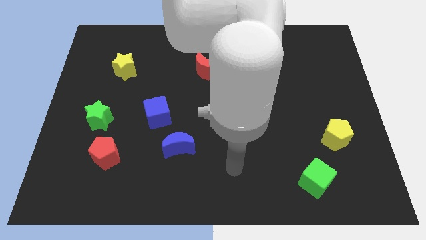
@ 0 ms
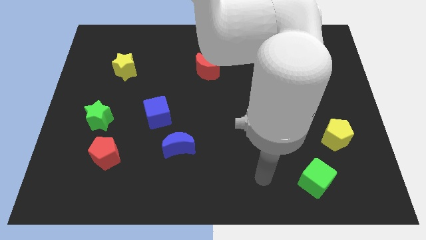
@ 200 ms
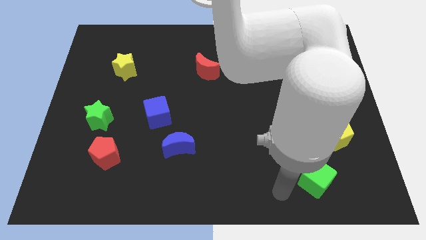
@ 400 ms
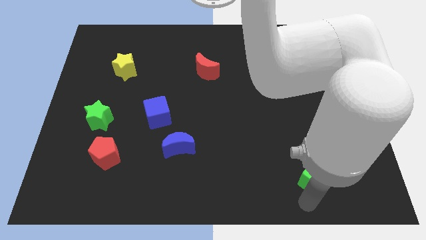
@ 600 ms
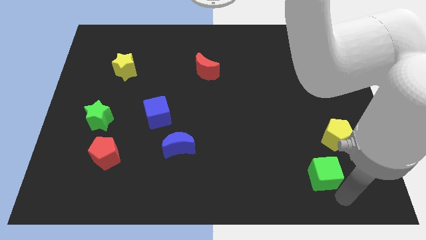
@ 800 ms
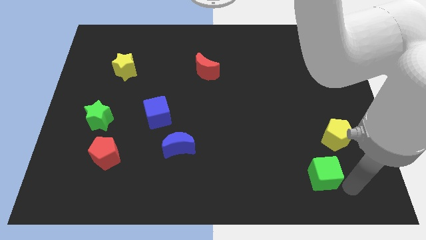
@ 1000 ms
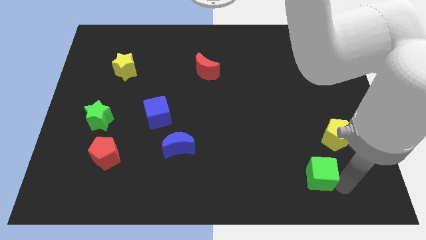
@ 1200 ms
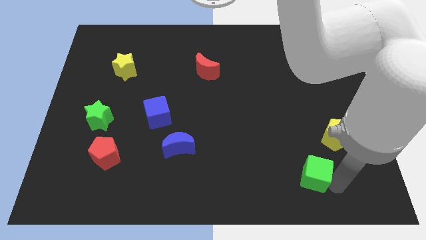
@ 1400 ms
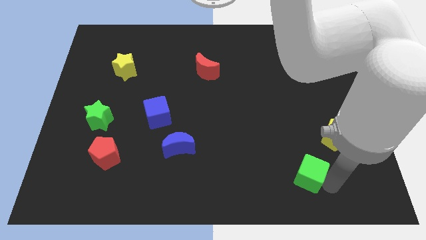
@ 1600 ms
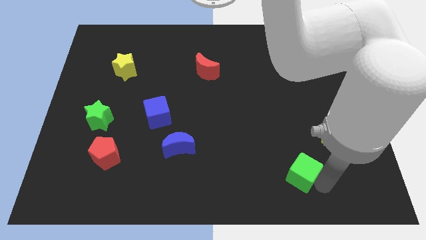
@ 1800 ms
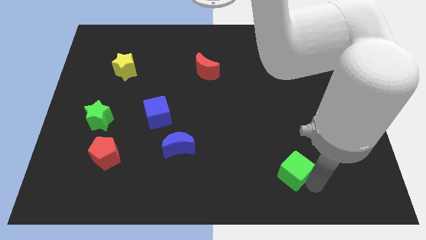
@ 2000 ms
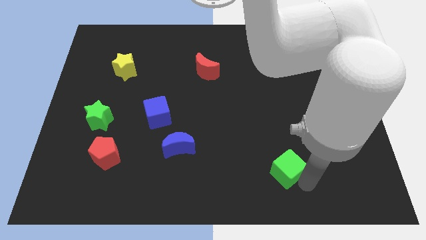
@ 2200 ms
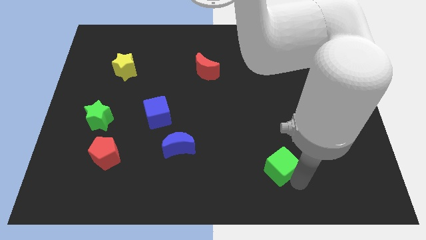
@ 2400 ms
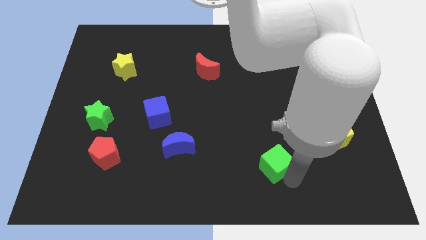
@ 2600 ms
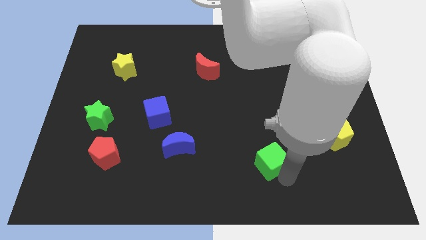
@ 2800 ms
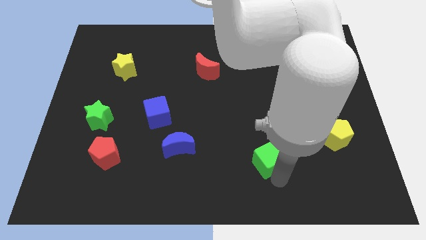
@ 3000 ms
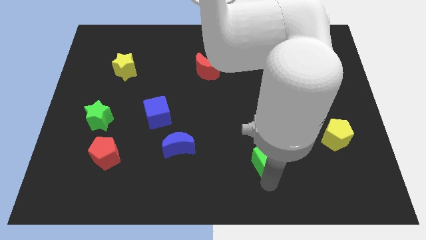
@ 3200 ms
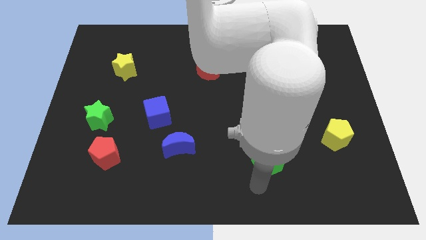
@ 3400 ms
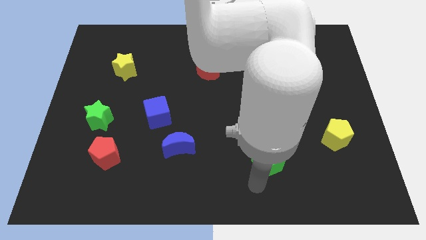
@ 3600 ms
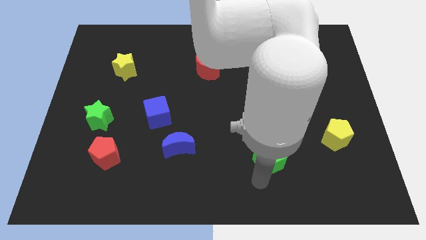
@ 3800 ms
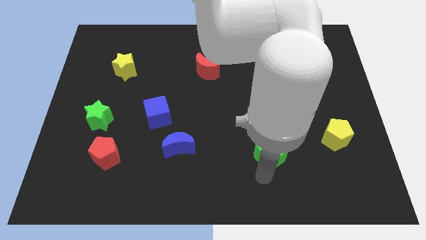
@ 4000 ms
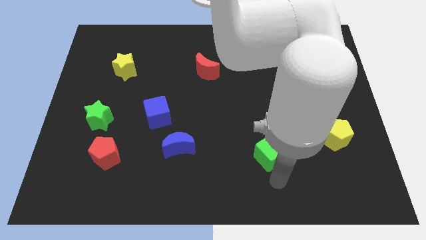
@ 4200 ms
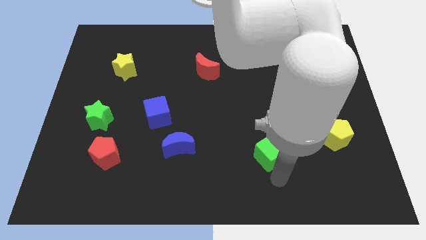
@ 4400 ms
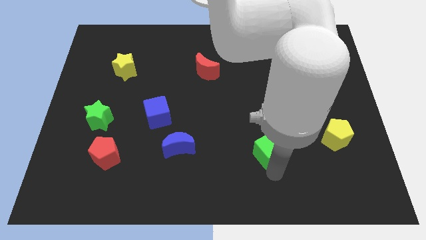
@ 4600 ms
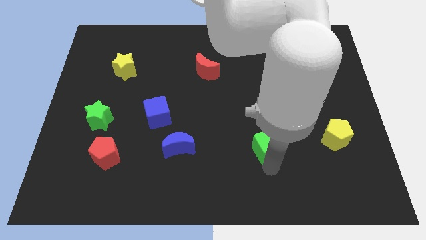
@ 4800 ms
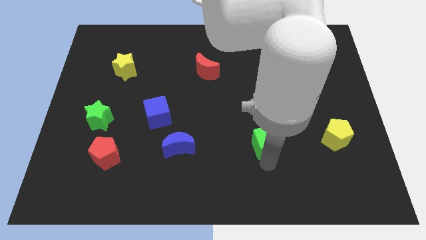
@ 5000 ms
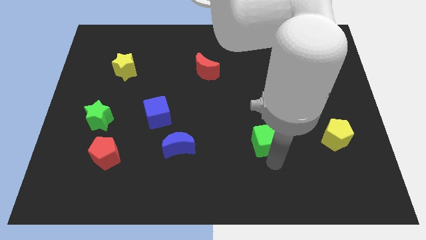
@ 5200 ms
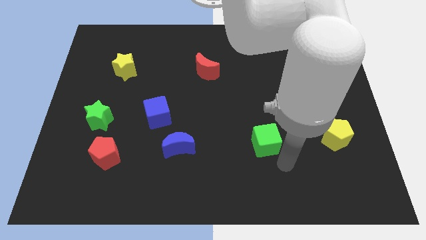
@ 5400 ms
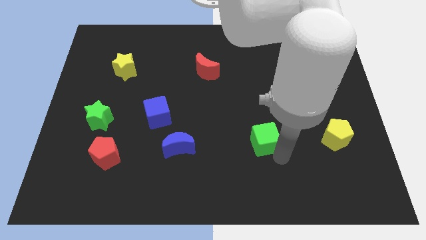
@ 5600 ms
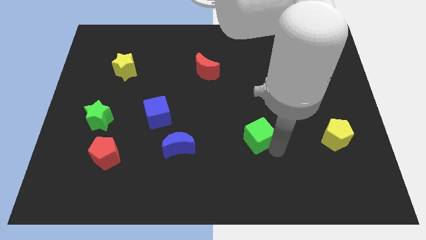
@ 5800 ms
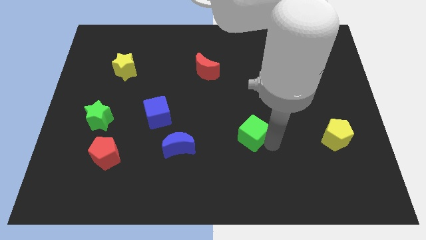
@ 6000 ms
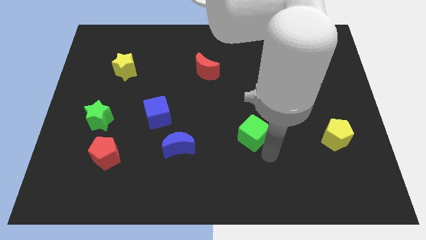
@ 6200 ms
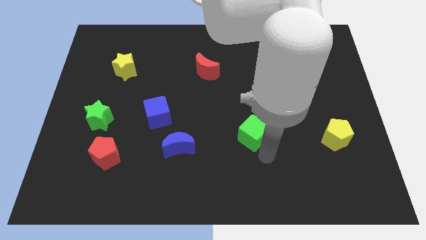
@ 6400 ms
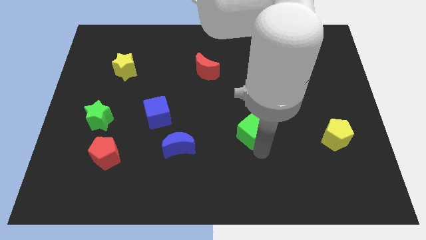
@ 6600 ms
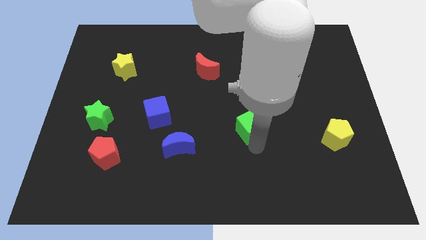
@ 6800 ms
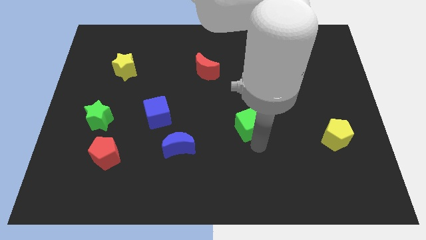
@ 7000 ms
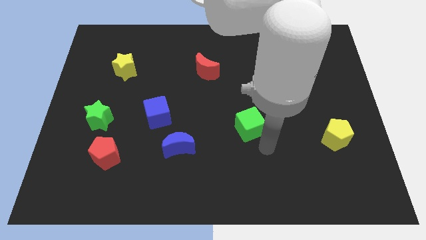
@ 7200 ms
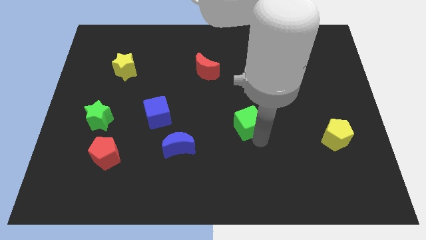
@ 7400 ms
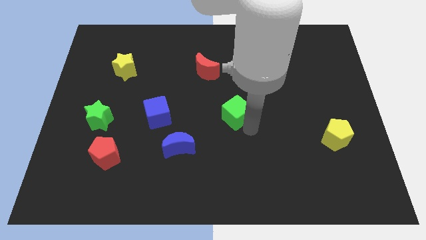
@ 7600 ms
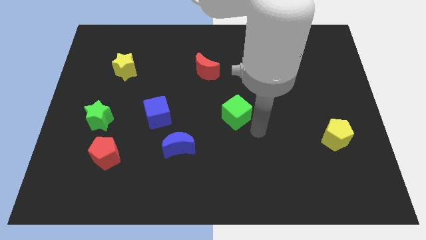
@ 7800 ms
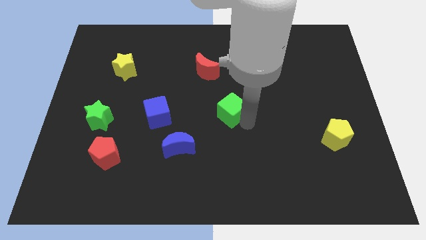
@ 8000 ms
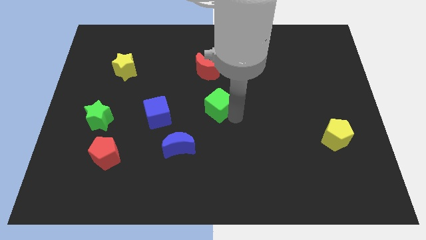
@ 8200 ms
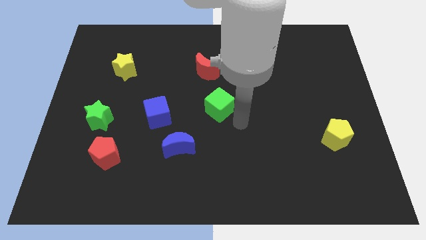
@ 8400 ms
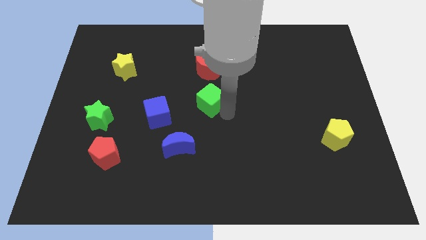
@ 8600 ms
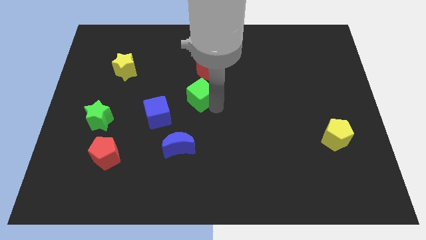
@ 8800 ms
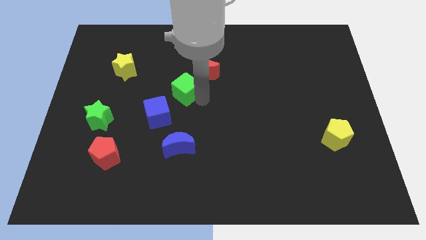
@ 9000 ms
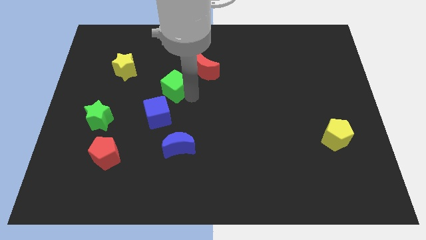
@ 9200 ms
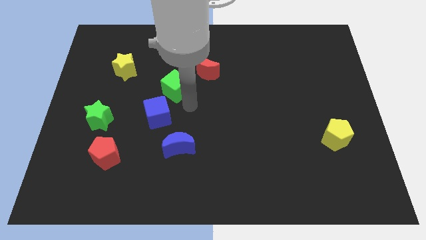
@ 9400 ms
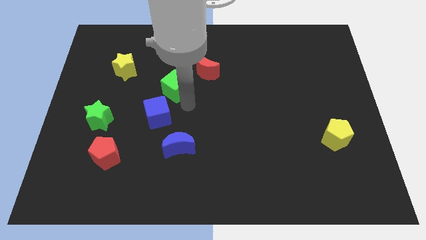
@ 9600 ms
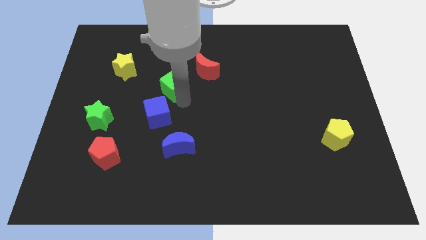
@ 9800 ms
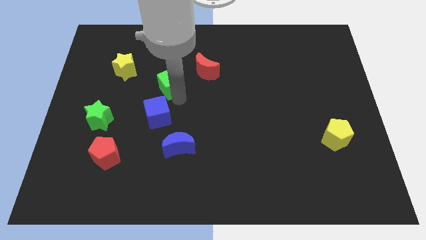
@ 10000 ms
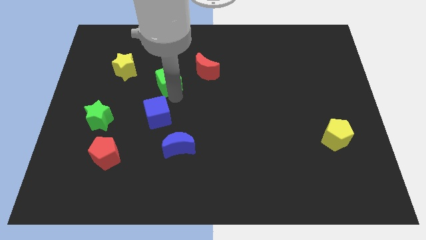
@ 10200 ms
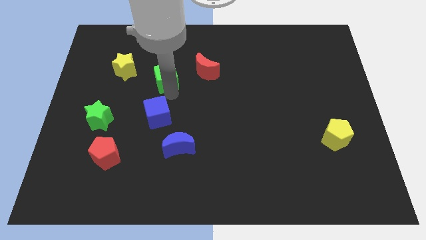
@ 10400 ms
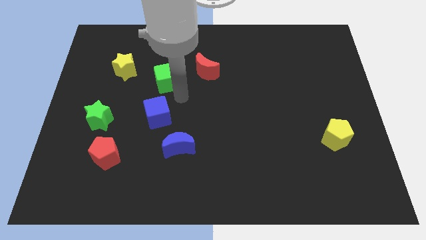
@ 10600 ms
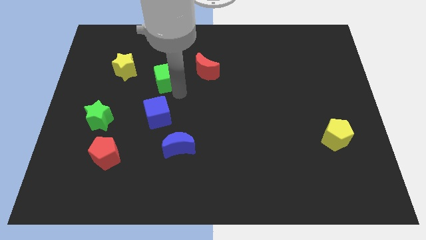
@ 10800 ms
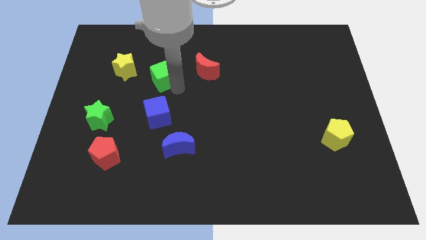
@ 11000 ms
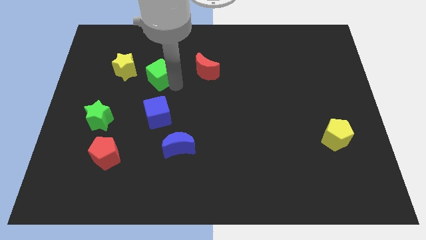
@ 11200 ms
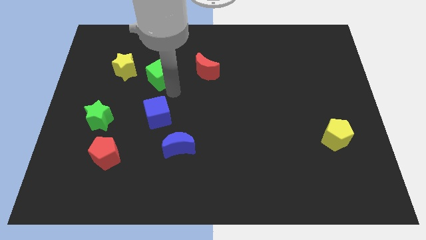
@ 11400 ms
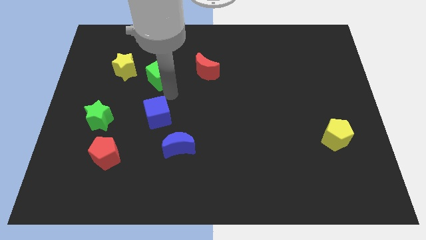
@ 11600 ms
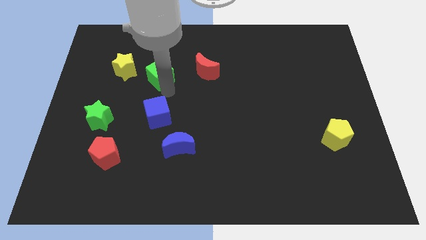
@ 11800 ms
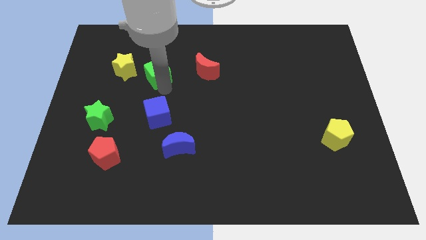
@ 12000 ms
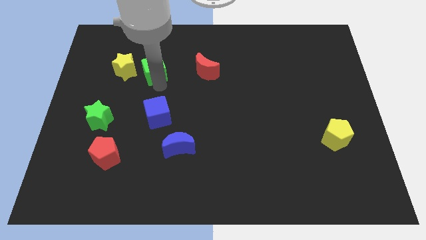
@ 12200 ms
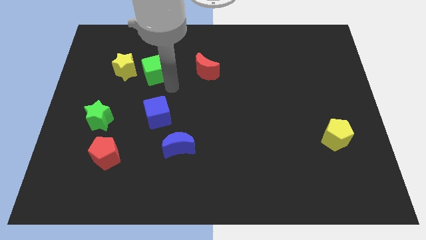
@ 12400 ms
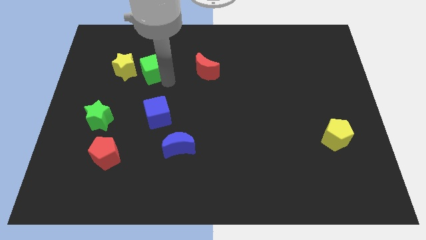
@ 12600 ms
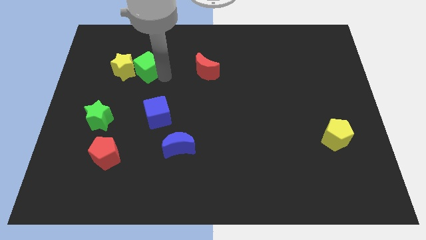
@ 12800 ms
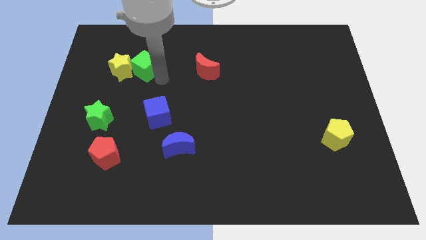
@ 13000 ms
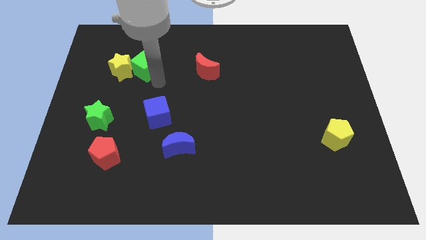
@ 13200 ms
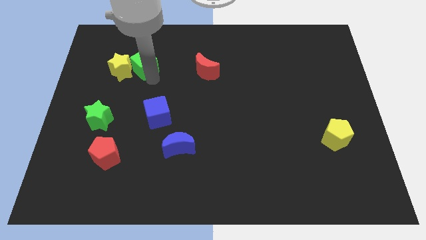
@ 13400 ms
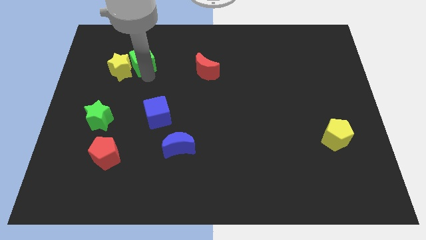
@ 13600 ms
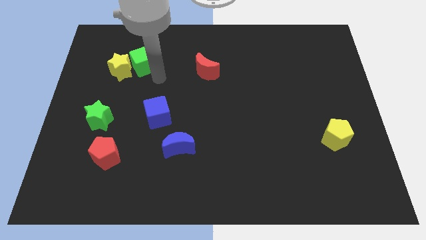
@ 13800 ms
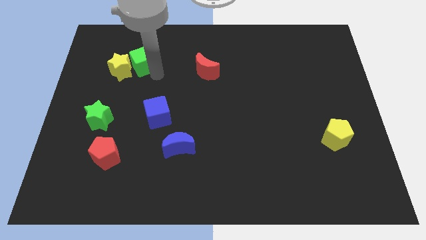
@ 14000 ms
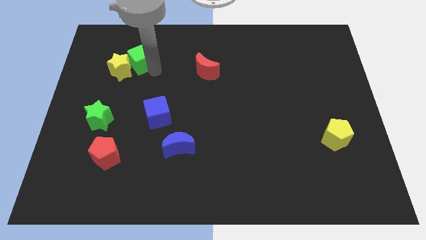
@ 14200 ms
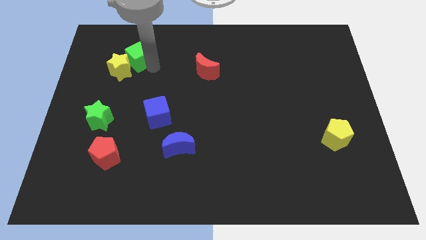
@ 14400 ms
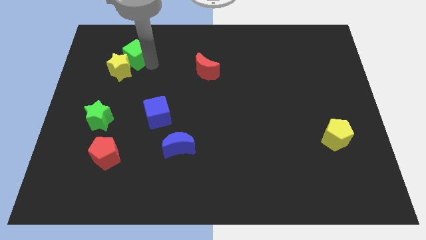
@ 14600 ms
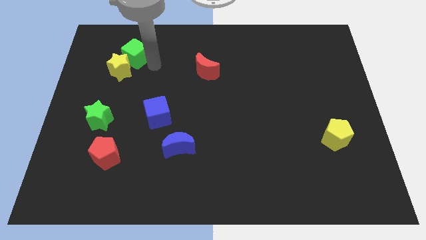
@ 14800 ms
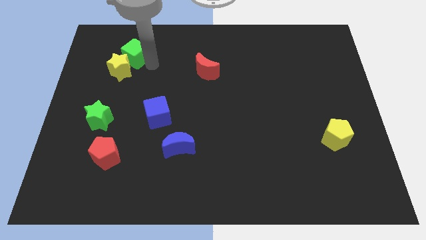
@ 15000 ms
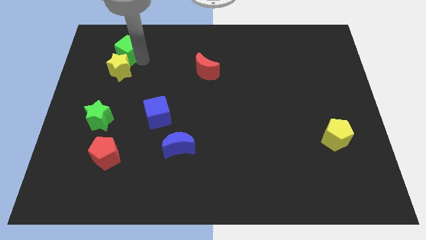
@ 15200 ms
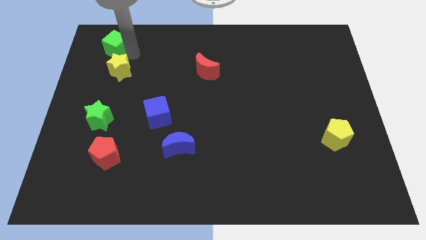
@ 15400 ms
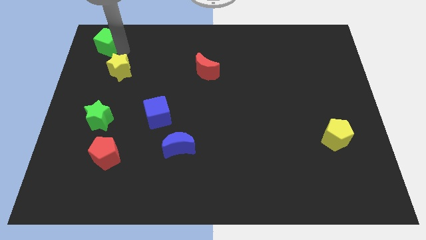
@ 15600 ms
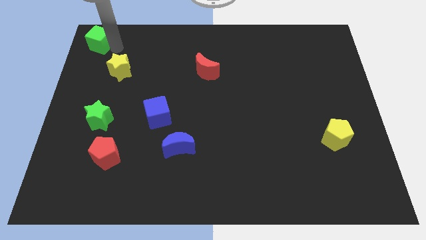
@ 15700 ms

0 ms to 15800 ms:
move the green cube to the upper left corner
